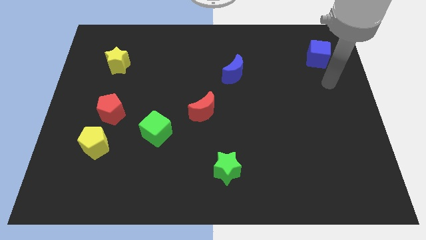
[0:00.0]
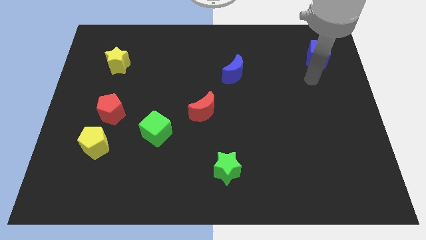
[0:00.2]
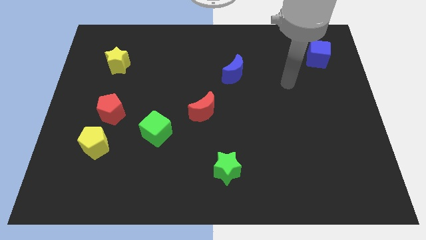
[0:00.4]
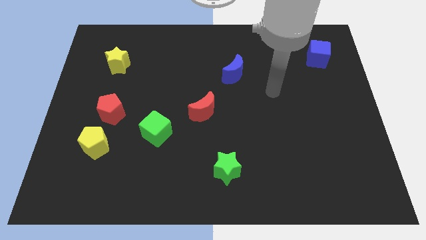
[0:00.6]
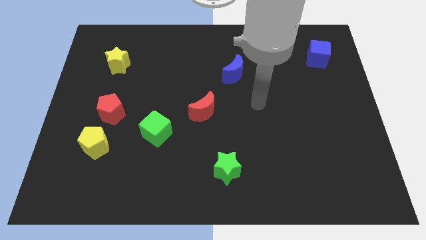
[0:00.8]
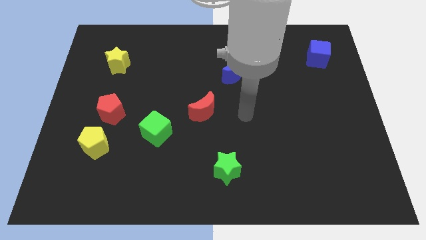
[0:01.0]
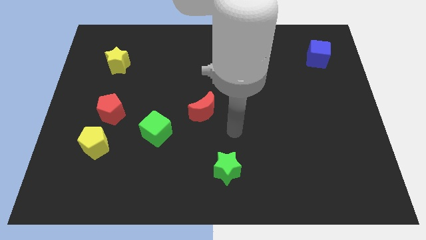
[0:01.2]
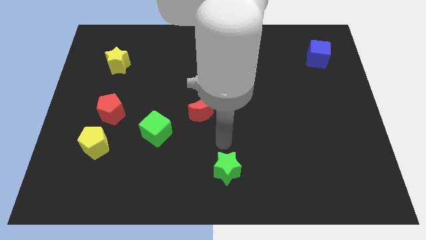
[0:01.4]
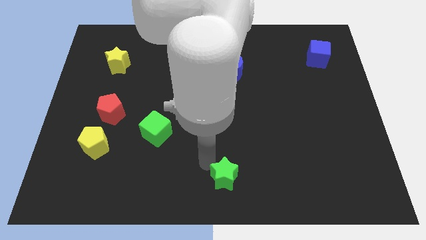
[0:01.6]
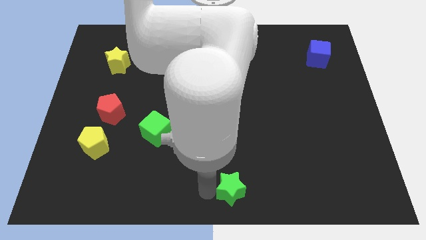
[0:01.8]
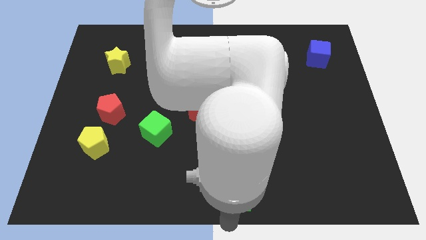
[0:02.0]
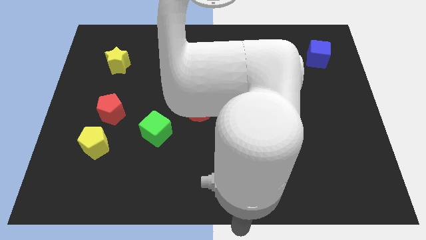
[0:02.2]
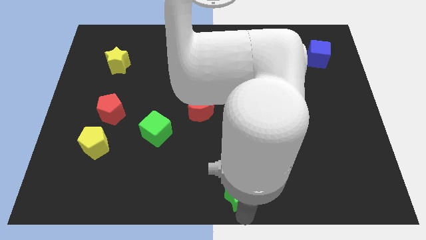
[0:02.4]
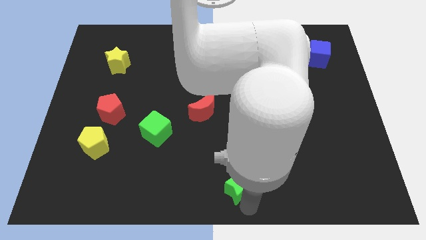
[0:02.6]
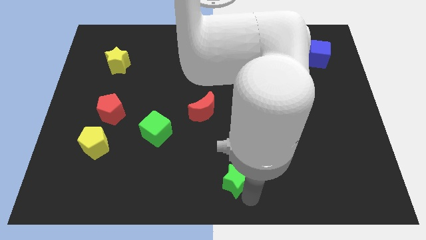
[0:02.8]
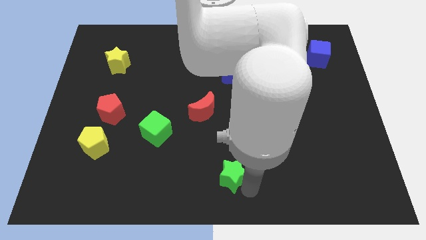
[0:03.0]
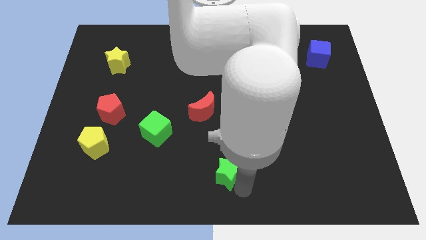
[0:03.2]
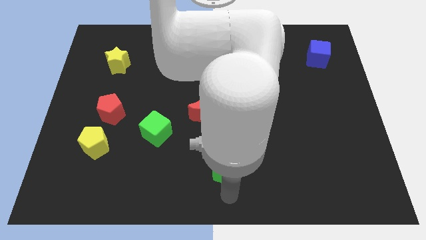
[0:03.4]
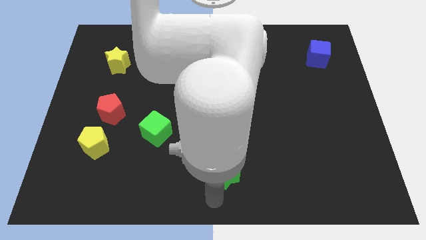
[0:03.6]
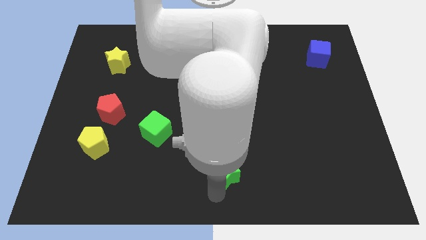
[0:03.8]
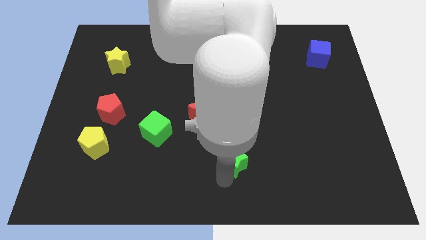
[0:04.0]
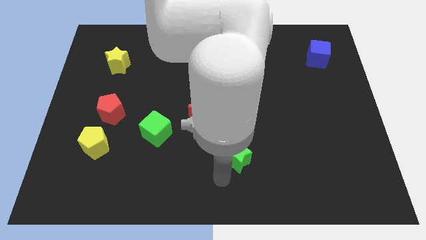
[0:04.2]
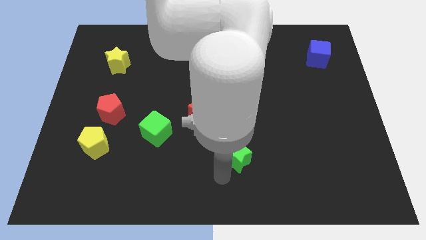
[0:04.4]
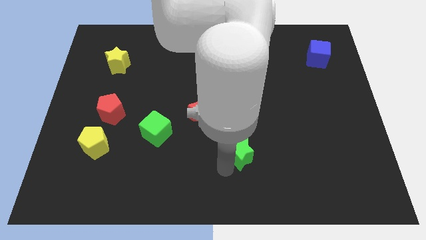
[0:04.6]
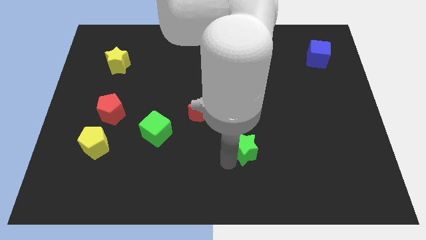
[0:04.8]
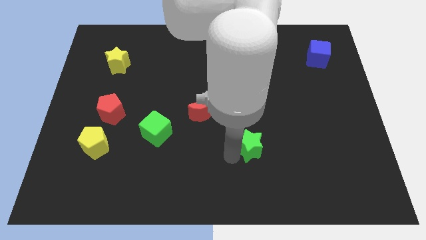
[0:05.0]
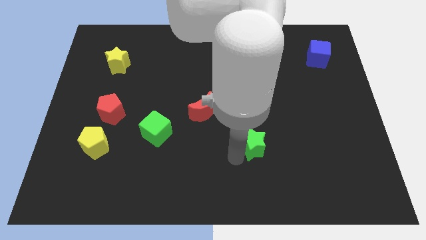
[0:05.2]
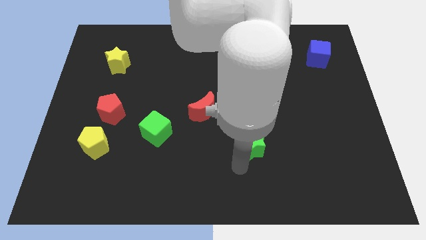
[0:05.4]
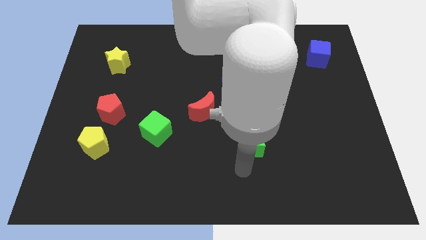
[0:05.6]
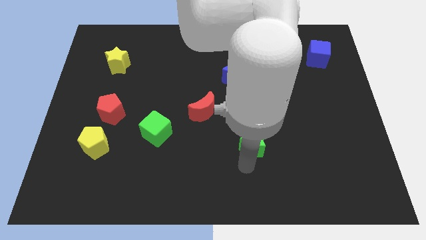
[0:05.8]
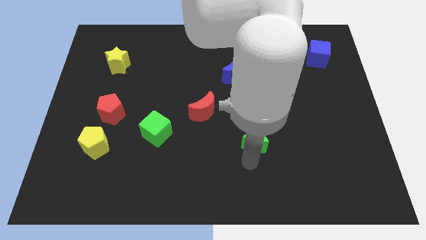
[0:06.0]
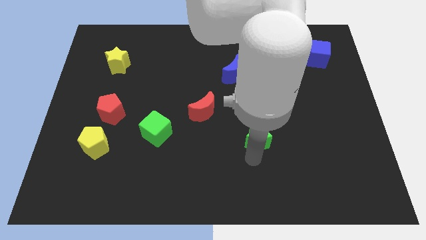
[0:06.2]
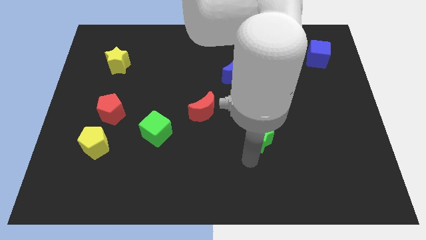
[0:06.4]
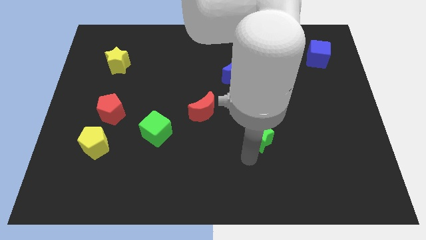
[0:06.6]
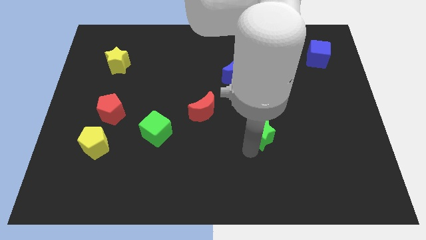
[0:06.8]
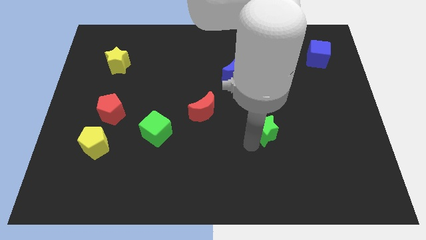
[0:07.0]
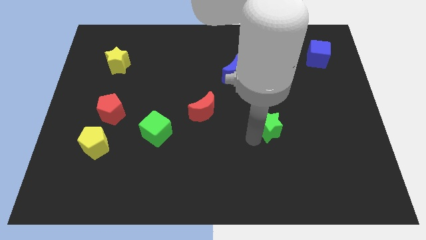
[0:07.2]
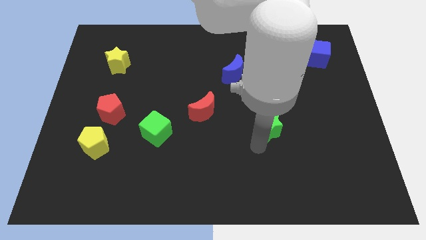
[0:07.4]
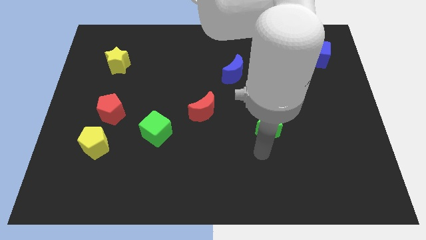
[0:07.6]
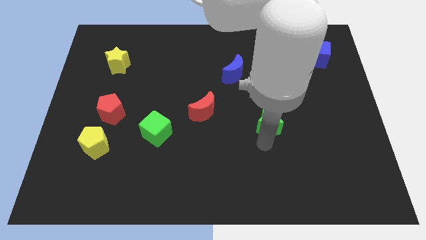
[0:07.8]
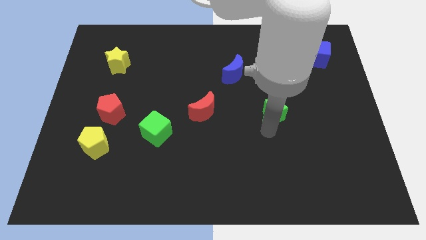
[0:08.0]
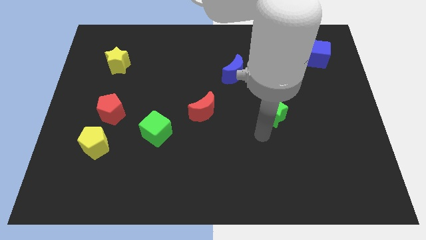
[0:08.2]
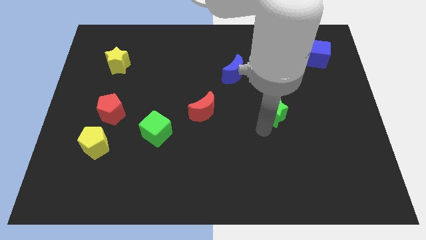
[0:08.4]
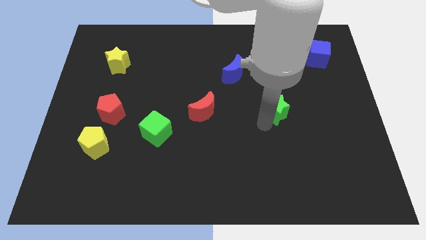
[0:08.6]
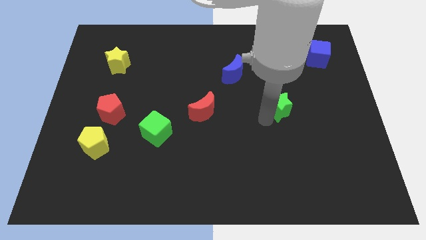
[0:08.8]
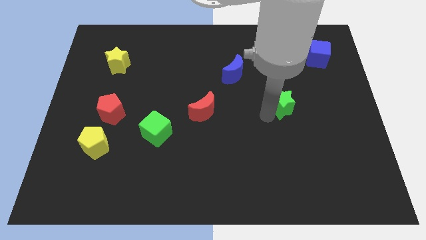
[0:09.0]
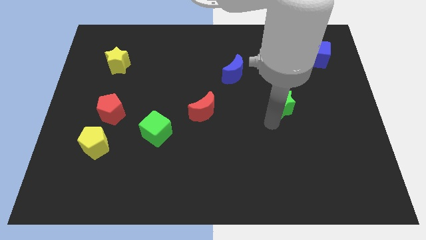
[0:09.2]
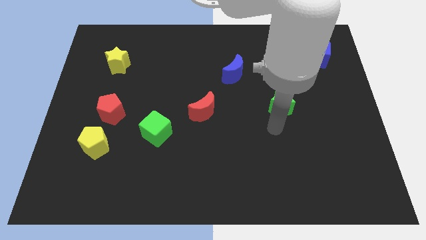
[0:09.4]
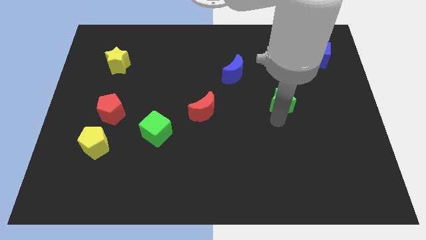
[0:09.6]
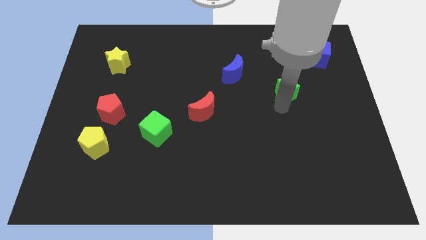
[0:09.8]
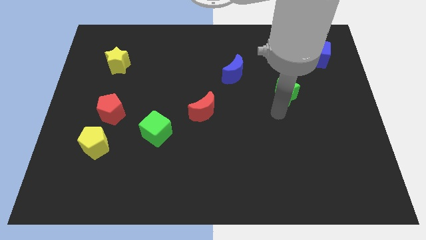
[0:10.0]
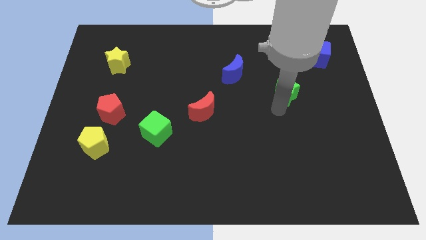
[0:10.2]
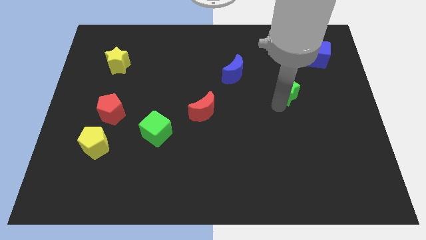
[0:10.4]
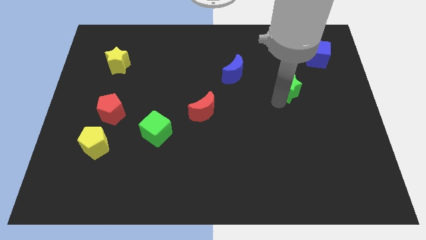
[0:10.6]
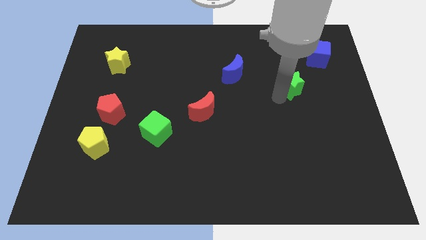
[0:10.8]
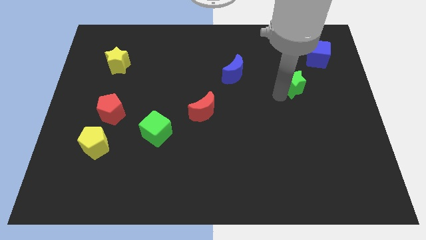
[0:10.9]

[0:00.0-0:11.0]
put the green star diagonally down and to the left of the blue cube

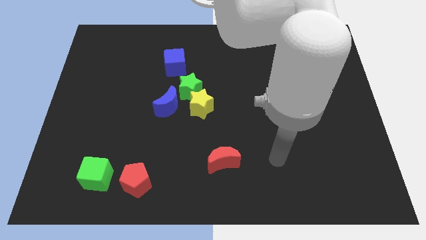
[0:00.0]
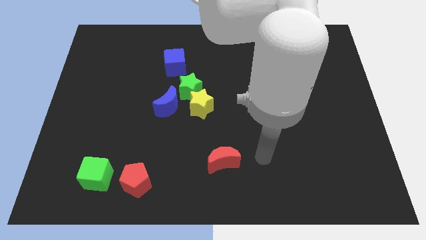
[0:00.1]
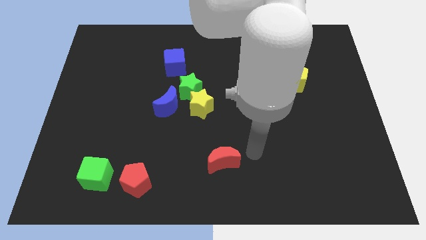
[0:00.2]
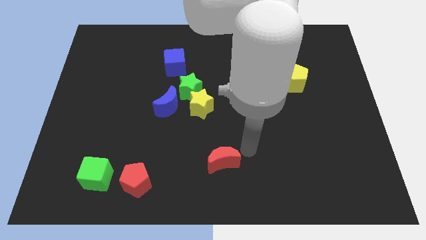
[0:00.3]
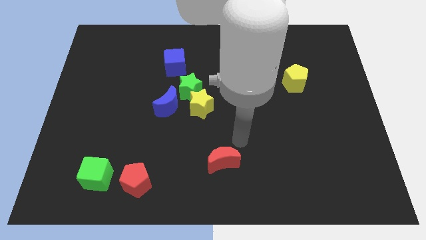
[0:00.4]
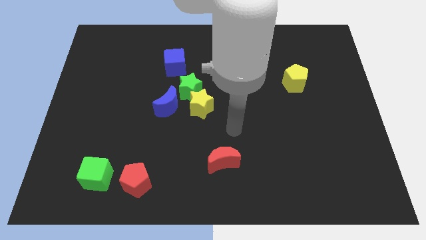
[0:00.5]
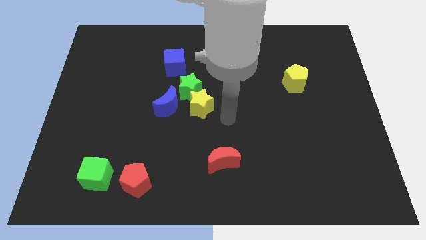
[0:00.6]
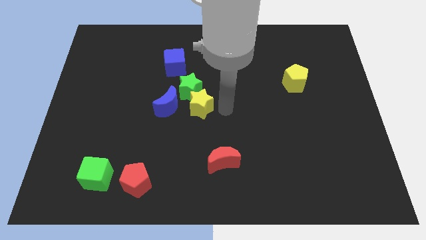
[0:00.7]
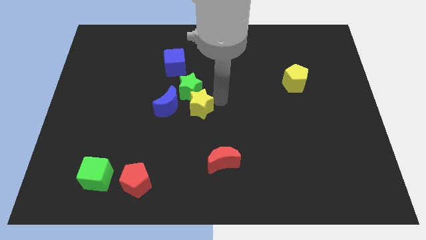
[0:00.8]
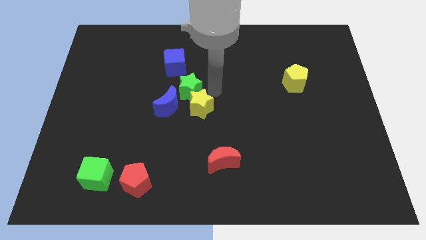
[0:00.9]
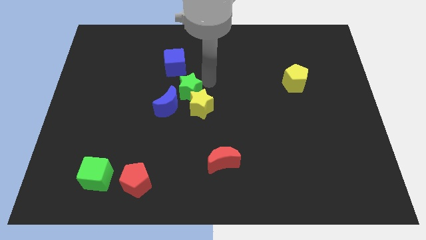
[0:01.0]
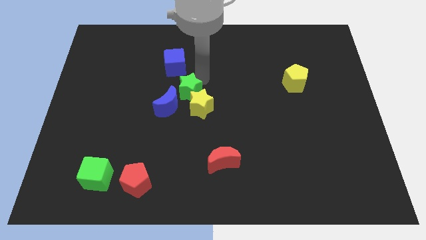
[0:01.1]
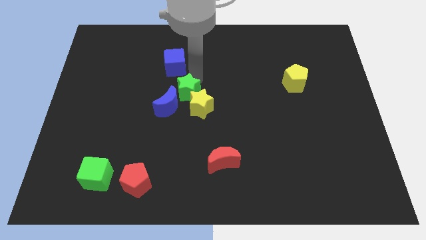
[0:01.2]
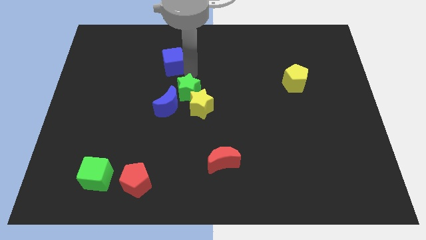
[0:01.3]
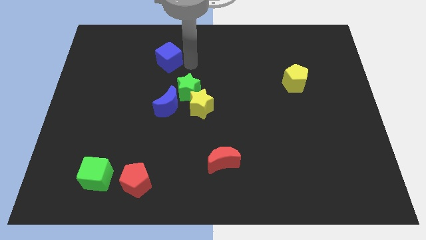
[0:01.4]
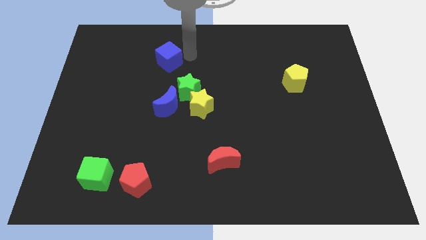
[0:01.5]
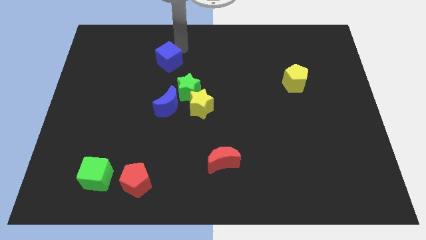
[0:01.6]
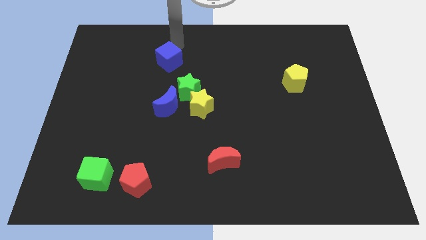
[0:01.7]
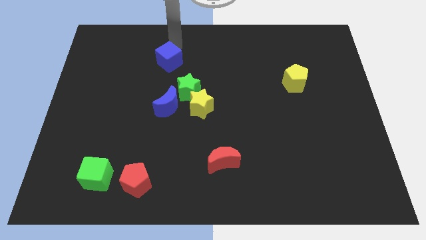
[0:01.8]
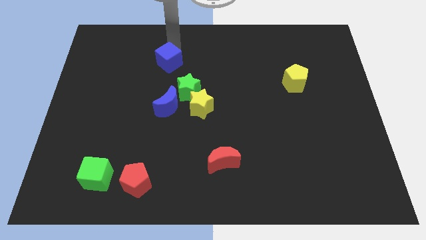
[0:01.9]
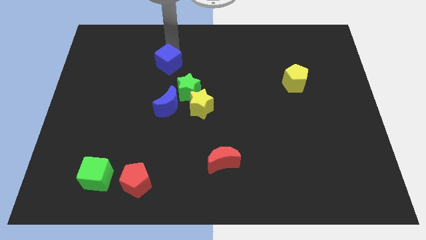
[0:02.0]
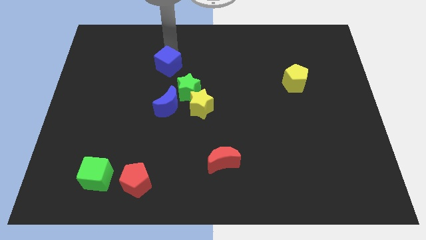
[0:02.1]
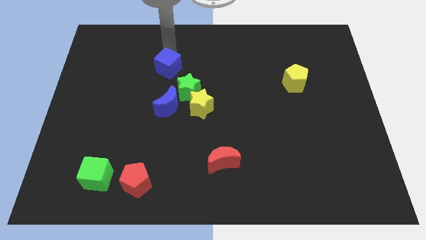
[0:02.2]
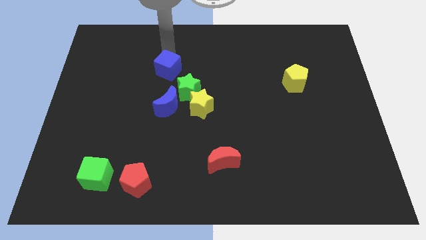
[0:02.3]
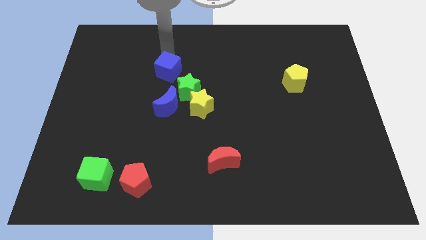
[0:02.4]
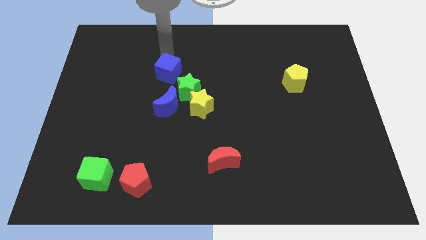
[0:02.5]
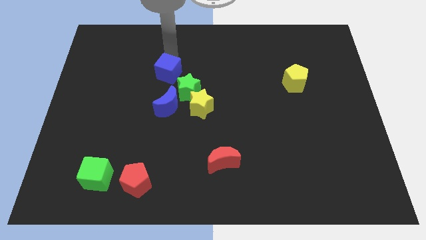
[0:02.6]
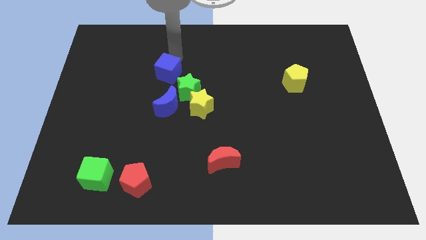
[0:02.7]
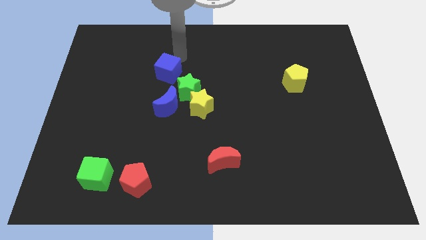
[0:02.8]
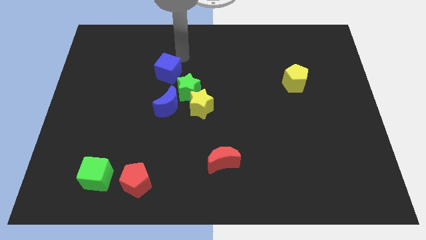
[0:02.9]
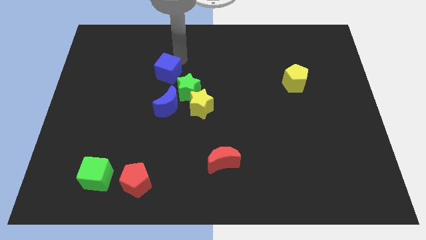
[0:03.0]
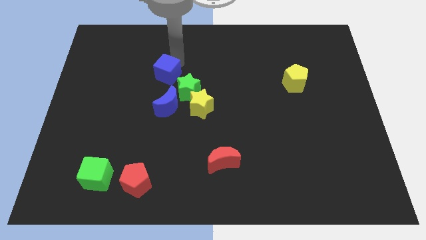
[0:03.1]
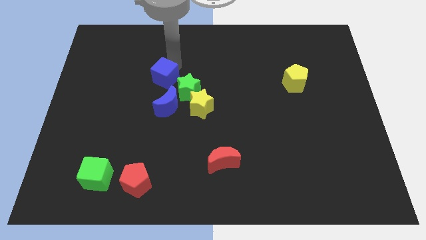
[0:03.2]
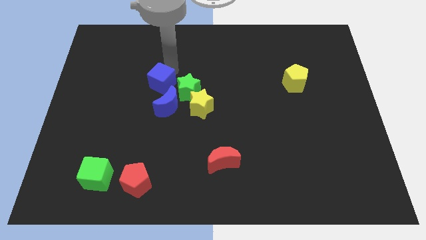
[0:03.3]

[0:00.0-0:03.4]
push the blue cube to the top left side of the blue moon
